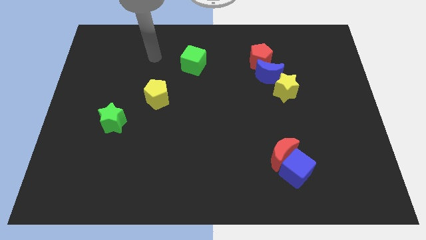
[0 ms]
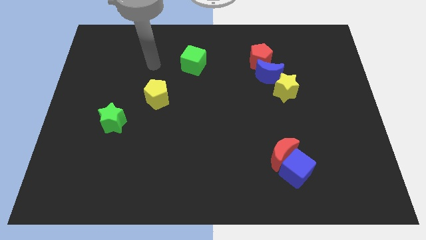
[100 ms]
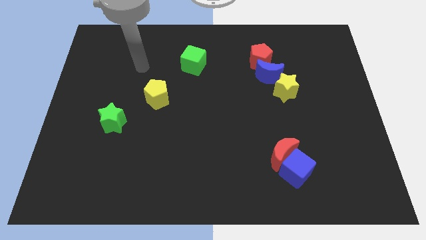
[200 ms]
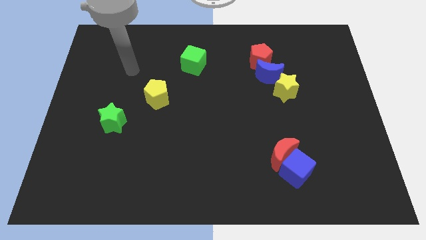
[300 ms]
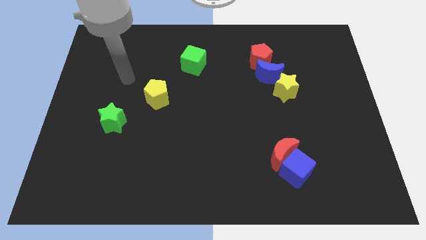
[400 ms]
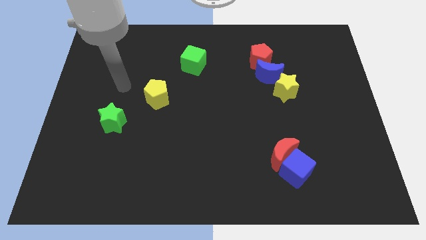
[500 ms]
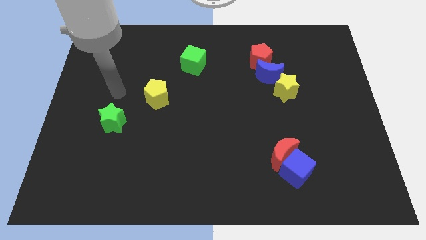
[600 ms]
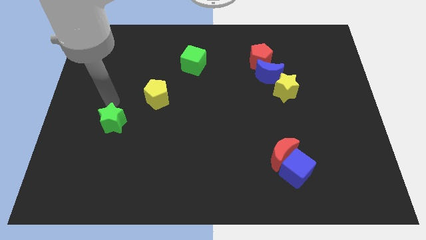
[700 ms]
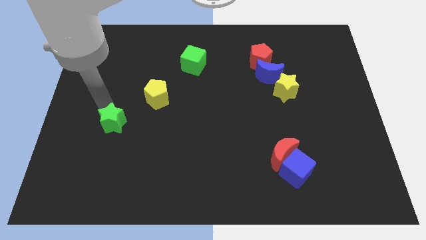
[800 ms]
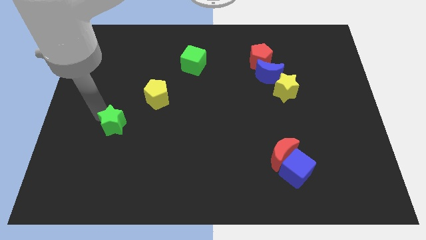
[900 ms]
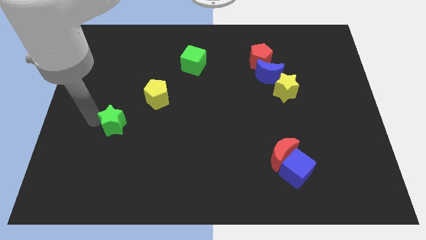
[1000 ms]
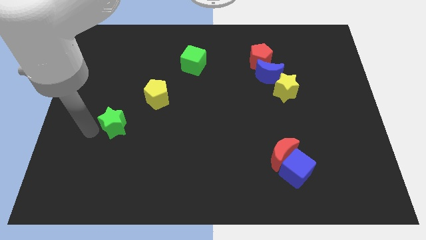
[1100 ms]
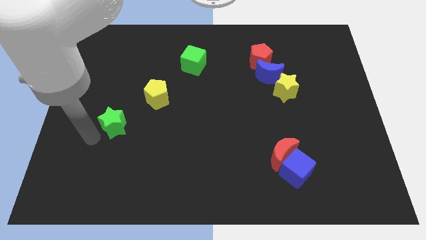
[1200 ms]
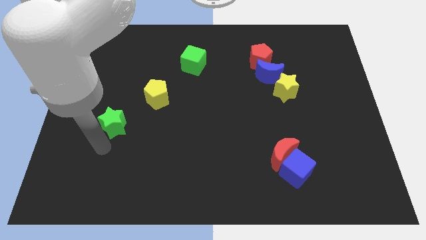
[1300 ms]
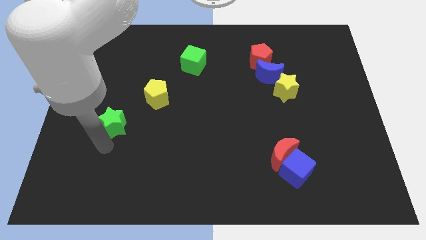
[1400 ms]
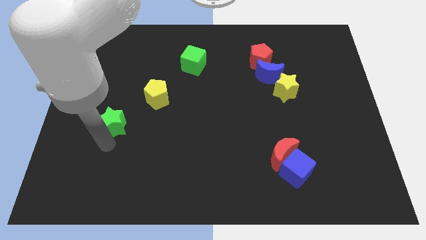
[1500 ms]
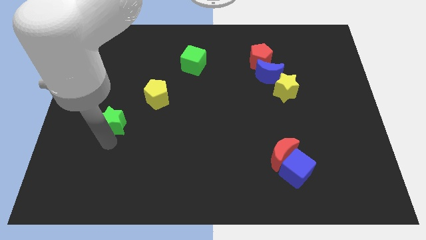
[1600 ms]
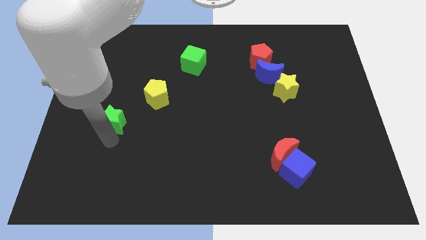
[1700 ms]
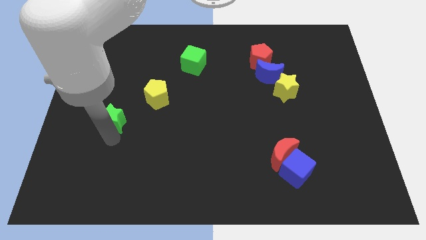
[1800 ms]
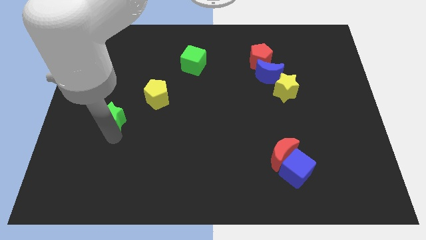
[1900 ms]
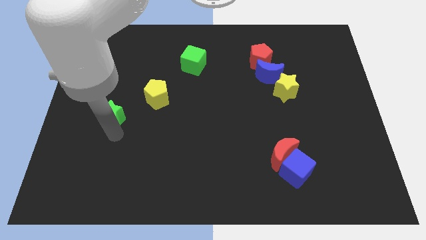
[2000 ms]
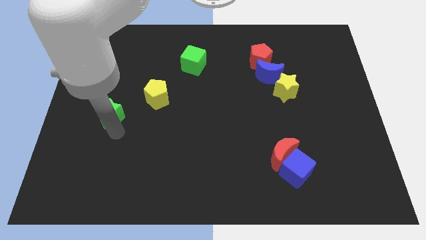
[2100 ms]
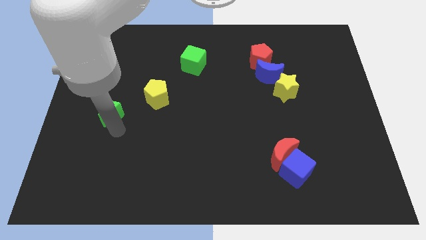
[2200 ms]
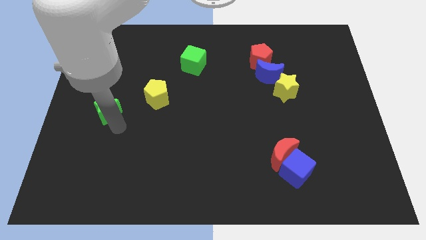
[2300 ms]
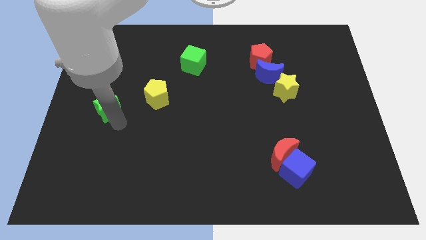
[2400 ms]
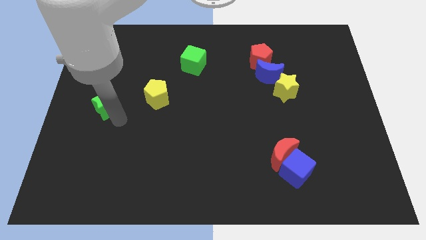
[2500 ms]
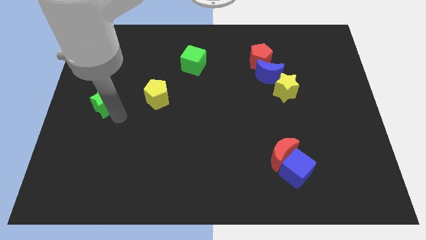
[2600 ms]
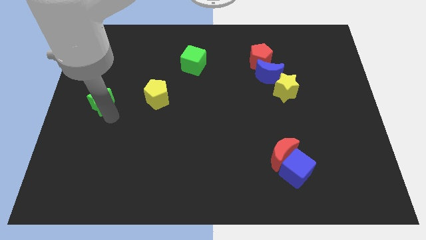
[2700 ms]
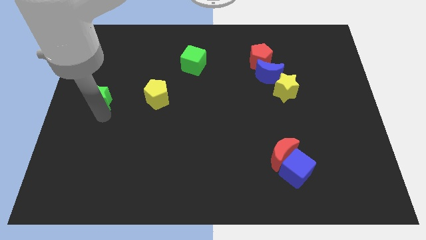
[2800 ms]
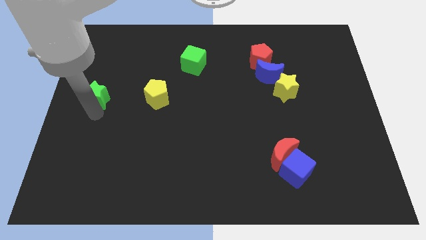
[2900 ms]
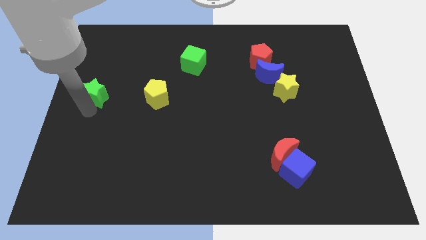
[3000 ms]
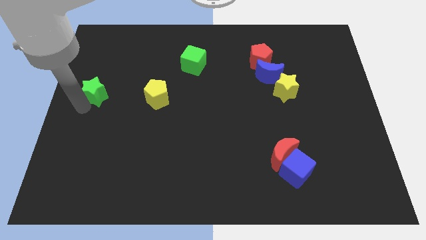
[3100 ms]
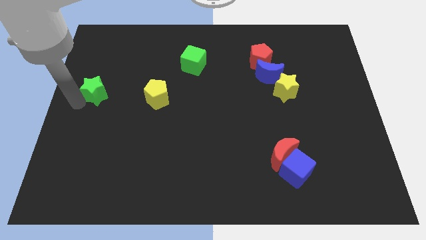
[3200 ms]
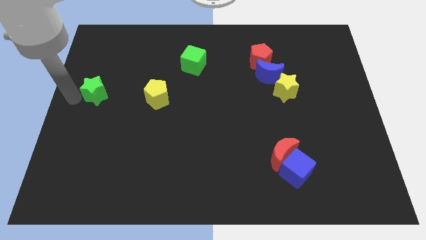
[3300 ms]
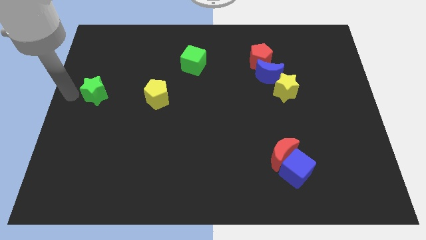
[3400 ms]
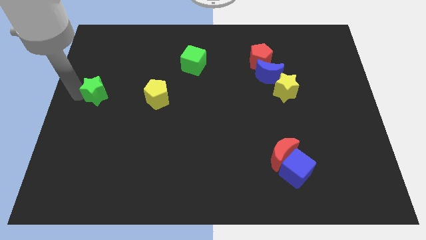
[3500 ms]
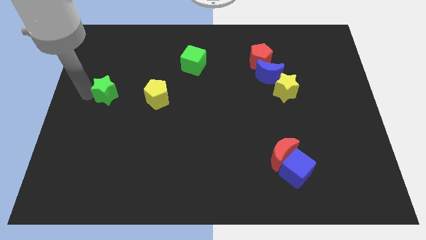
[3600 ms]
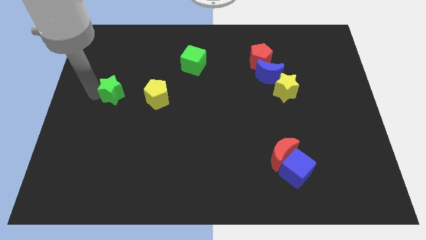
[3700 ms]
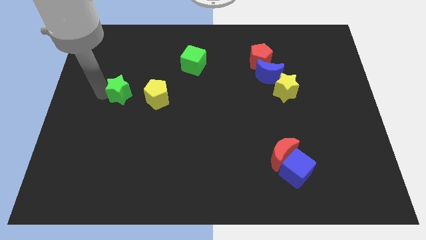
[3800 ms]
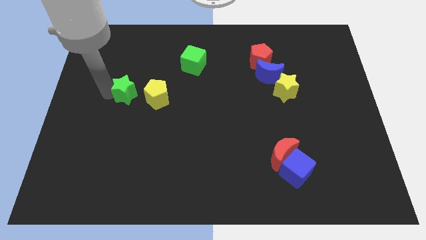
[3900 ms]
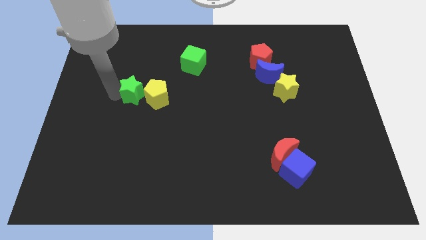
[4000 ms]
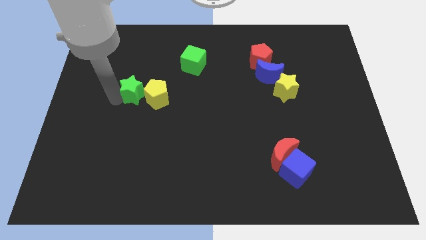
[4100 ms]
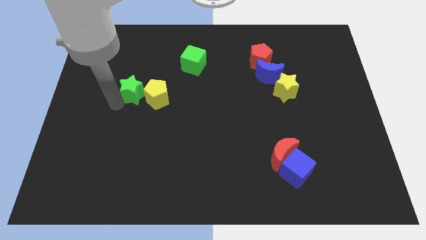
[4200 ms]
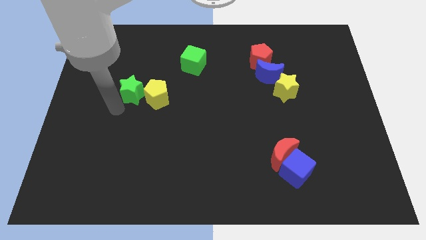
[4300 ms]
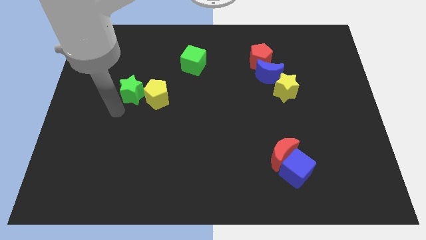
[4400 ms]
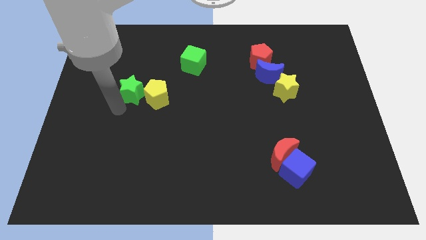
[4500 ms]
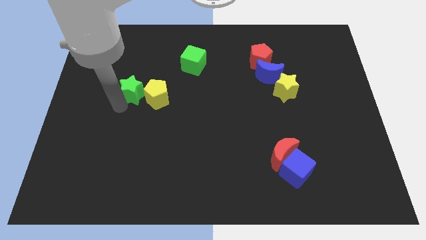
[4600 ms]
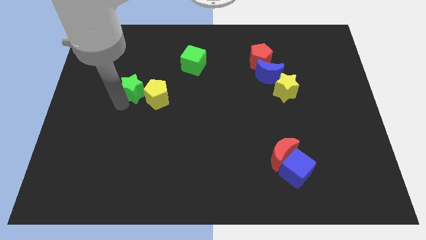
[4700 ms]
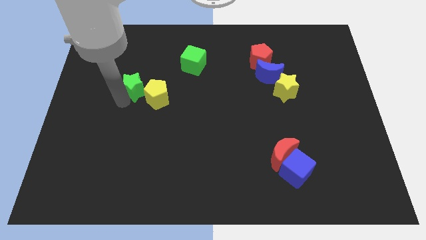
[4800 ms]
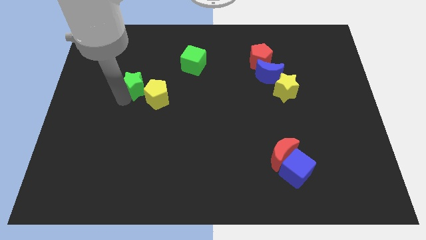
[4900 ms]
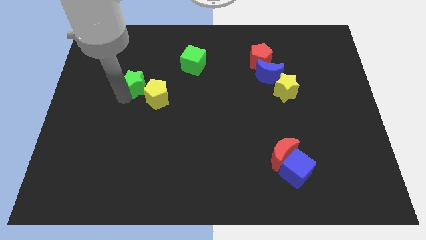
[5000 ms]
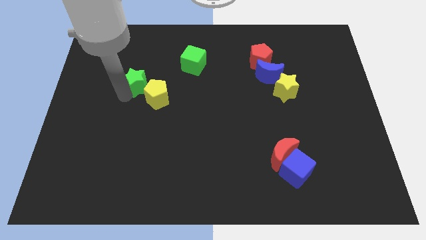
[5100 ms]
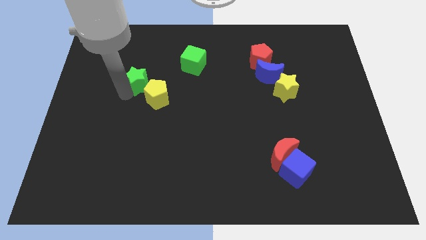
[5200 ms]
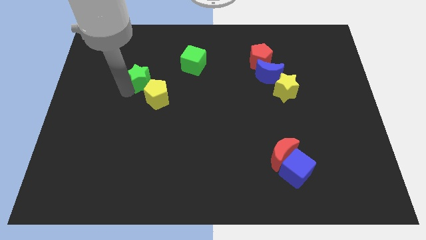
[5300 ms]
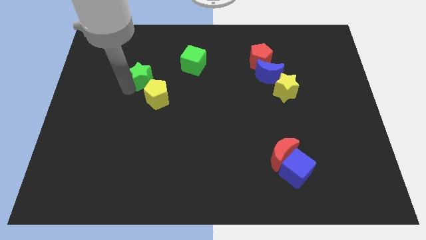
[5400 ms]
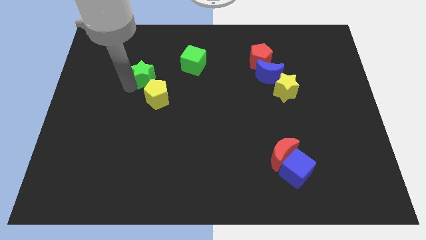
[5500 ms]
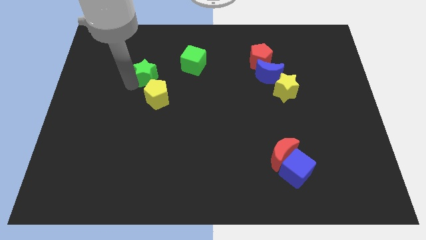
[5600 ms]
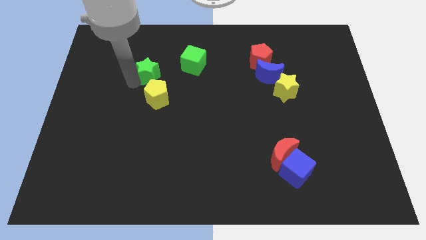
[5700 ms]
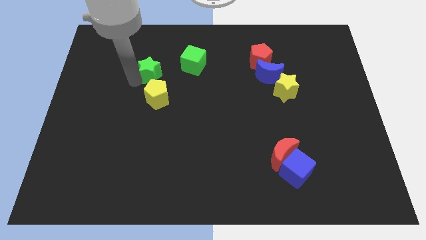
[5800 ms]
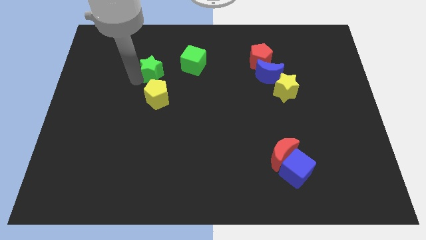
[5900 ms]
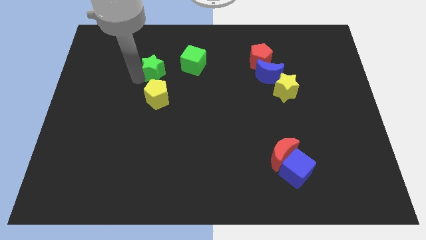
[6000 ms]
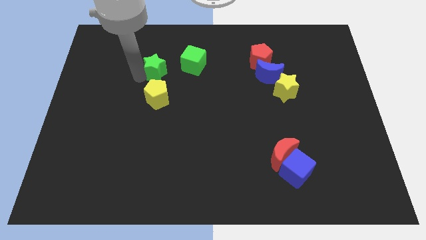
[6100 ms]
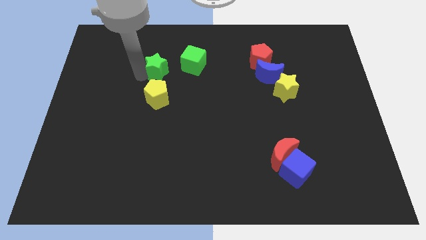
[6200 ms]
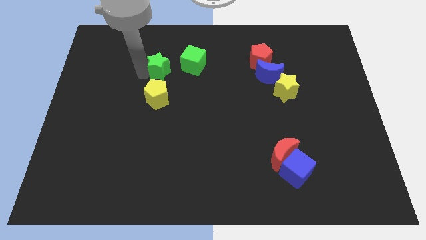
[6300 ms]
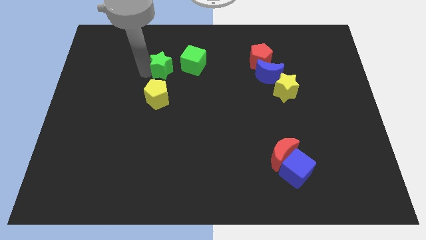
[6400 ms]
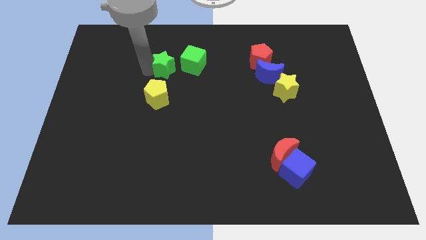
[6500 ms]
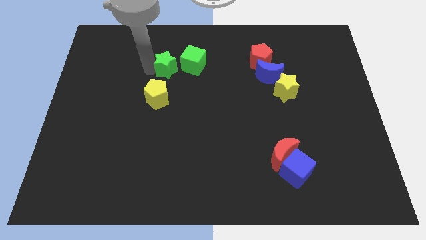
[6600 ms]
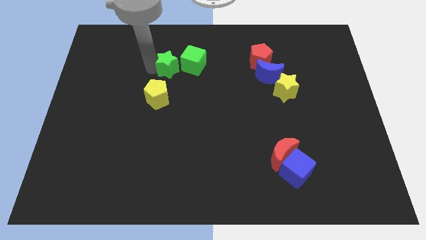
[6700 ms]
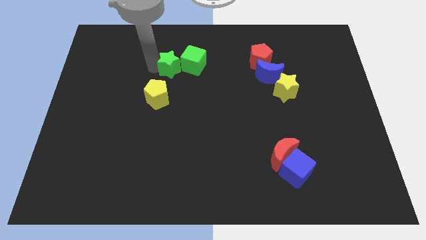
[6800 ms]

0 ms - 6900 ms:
put the green star to the green cube
